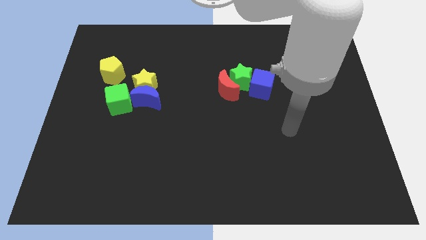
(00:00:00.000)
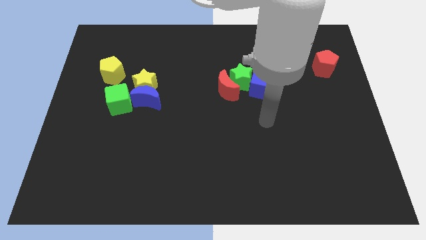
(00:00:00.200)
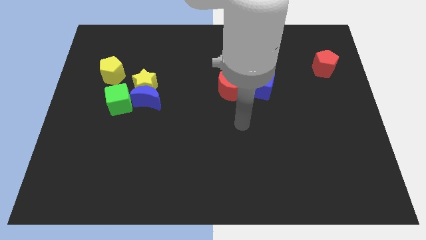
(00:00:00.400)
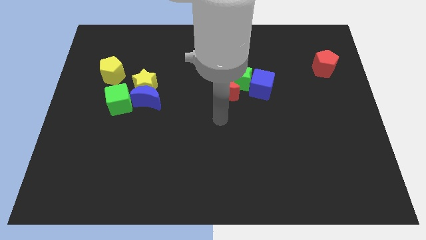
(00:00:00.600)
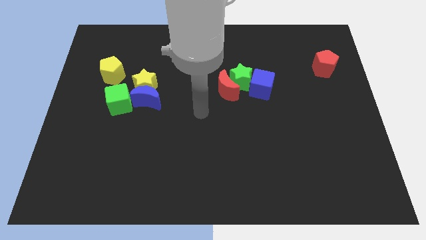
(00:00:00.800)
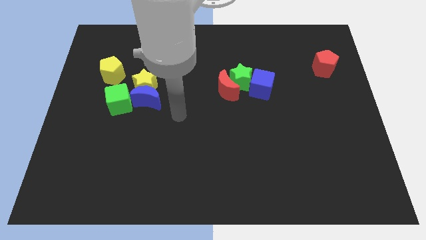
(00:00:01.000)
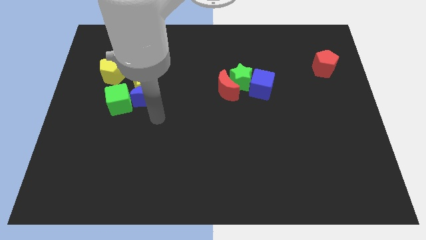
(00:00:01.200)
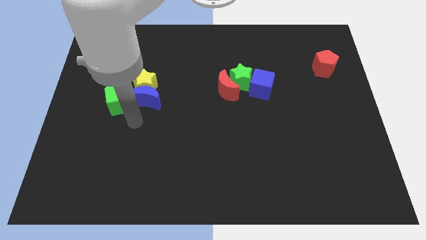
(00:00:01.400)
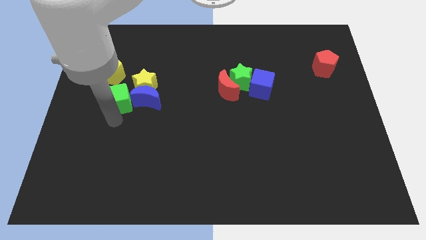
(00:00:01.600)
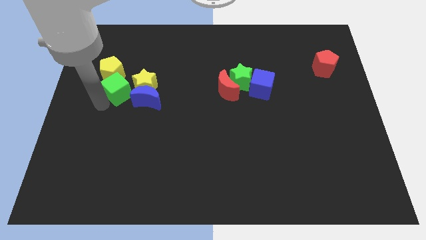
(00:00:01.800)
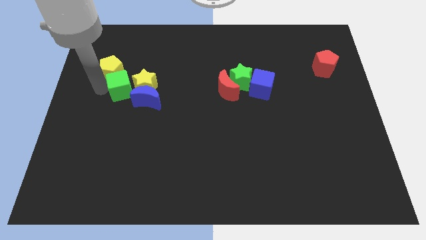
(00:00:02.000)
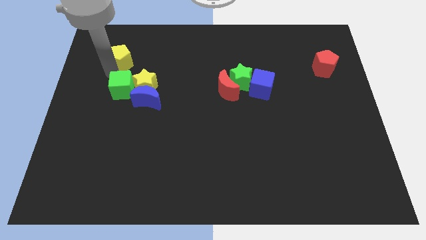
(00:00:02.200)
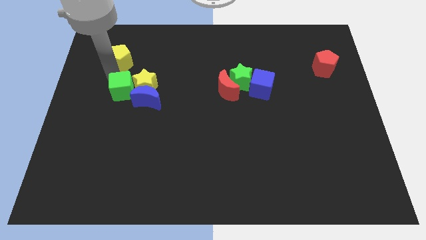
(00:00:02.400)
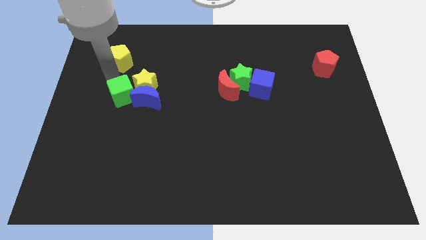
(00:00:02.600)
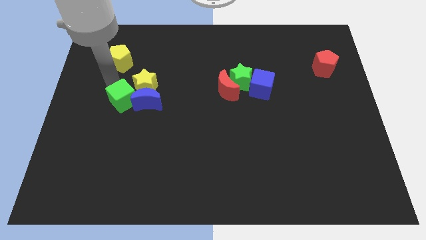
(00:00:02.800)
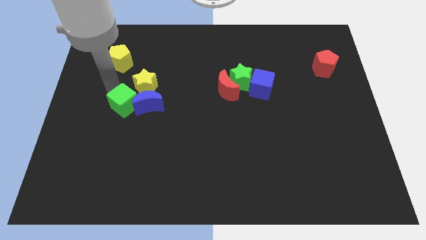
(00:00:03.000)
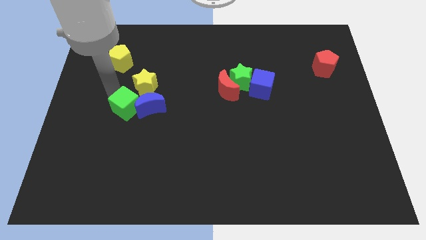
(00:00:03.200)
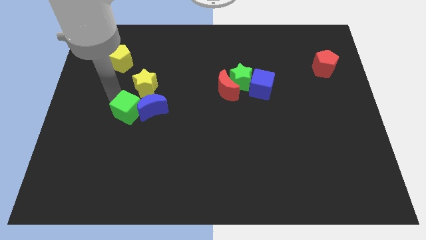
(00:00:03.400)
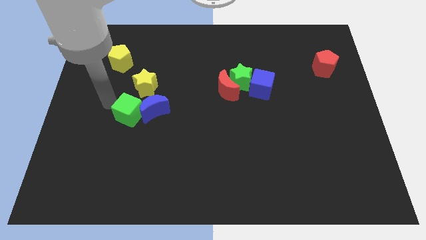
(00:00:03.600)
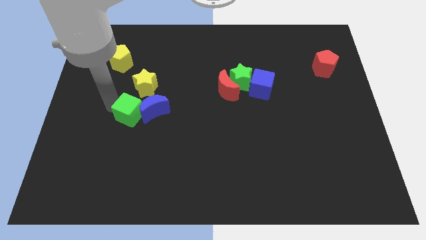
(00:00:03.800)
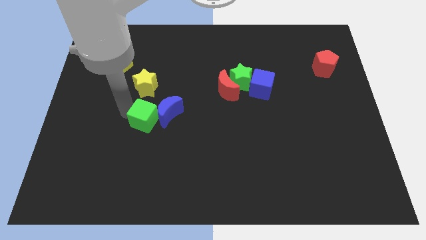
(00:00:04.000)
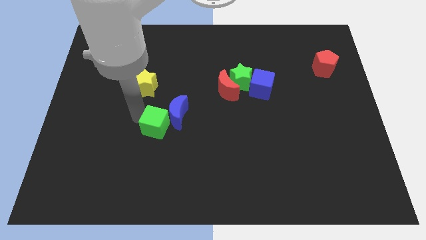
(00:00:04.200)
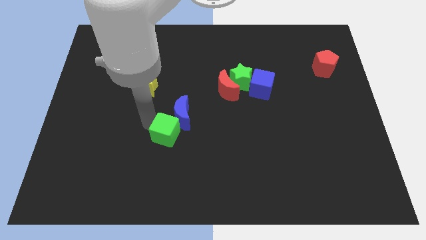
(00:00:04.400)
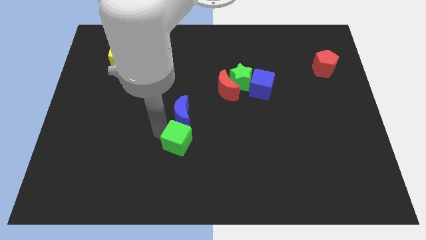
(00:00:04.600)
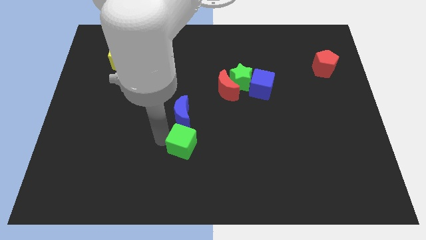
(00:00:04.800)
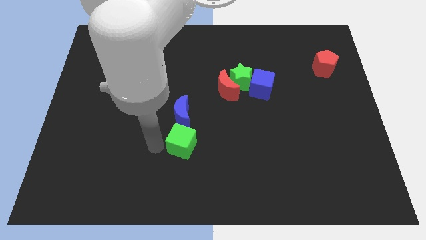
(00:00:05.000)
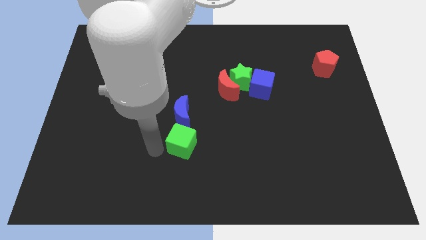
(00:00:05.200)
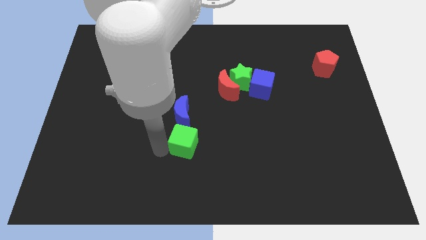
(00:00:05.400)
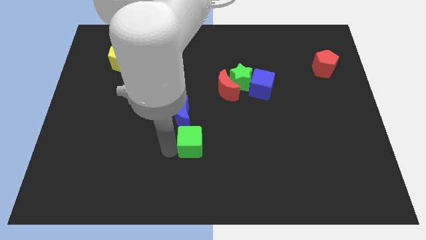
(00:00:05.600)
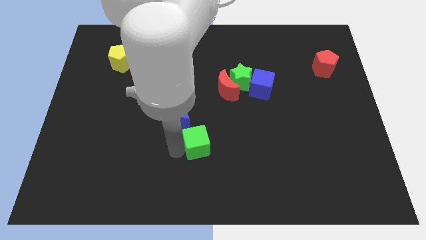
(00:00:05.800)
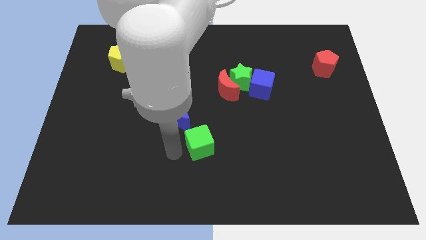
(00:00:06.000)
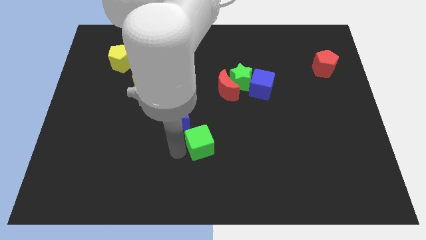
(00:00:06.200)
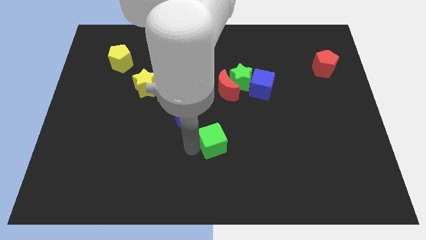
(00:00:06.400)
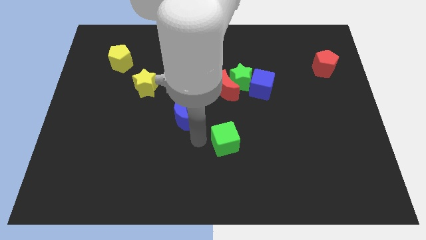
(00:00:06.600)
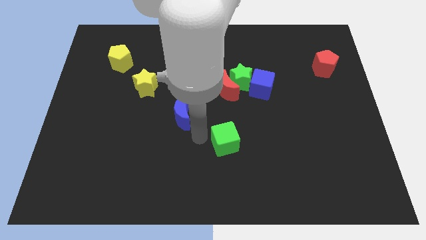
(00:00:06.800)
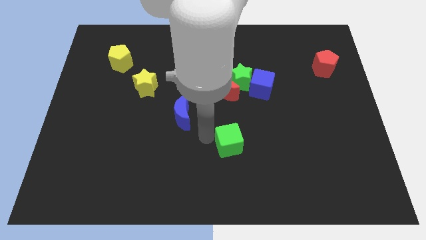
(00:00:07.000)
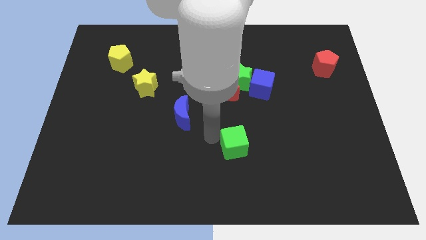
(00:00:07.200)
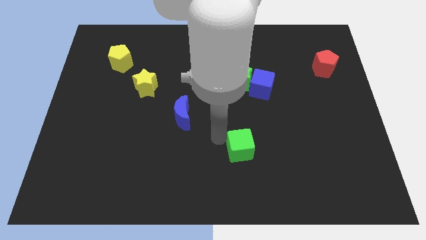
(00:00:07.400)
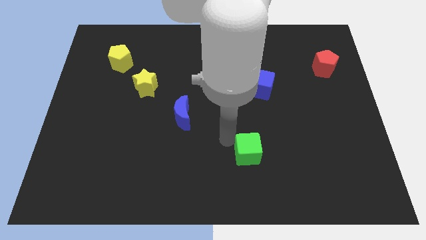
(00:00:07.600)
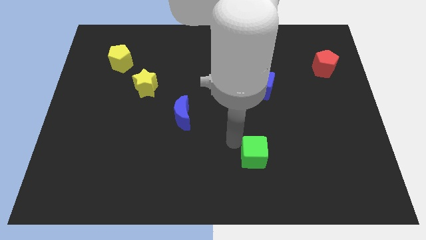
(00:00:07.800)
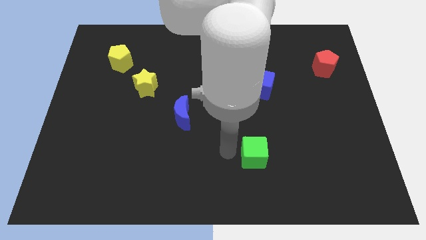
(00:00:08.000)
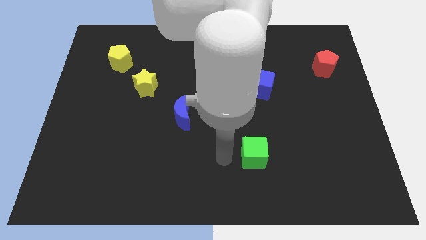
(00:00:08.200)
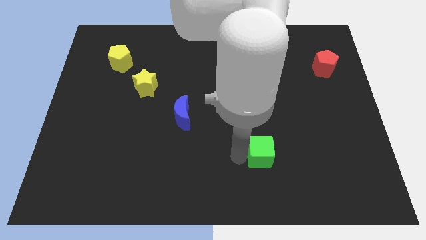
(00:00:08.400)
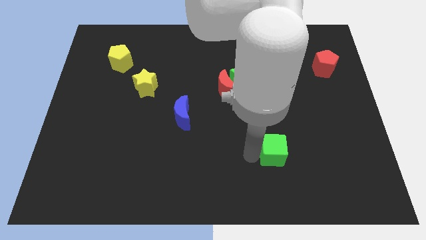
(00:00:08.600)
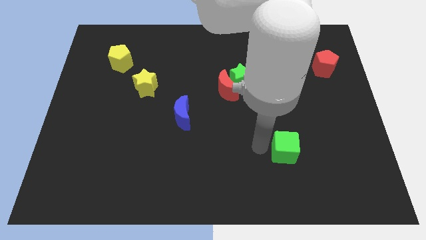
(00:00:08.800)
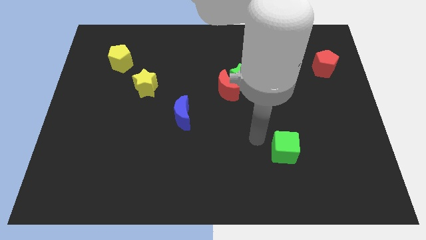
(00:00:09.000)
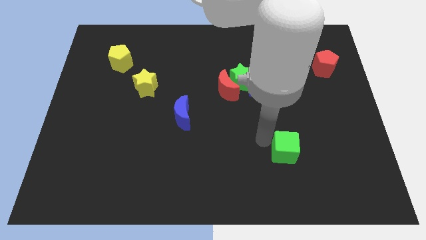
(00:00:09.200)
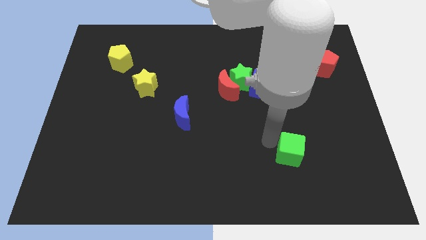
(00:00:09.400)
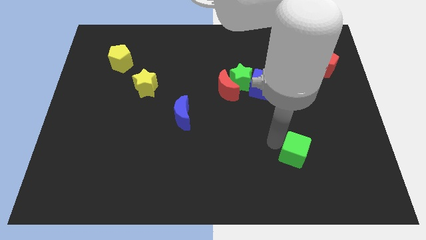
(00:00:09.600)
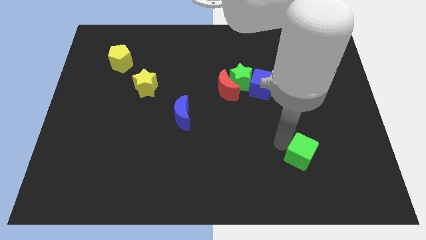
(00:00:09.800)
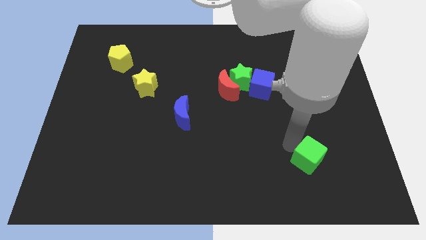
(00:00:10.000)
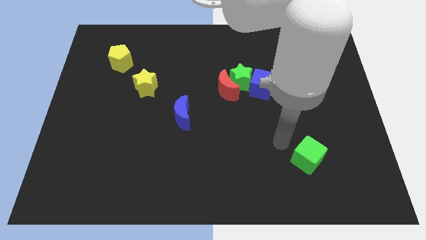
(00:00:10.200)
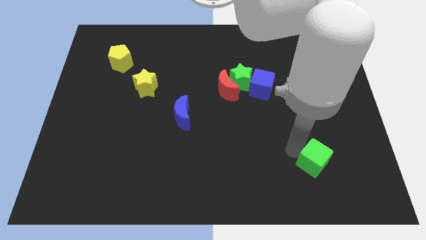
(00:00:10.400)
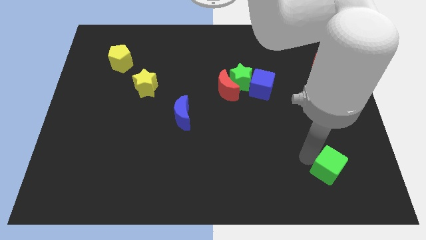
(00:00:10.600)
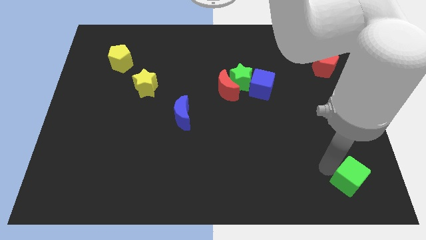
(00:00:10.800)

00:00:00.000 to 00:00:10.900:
slide the green cube to the bottom right
